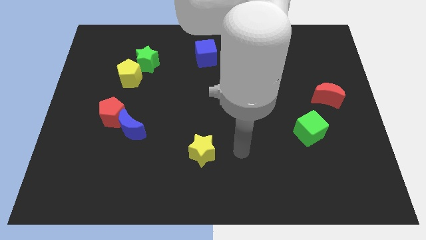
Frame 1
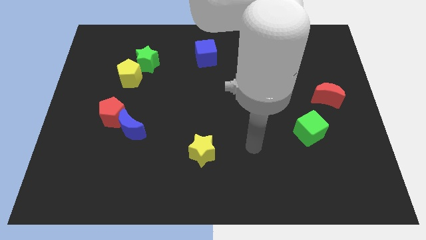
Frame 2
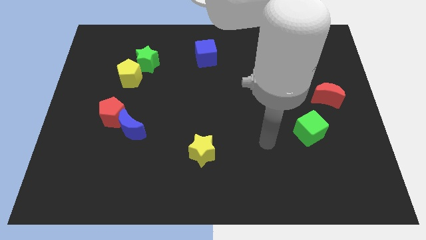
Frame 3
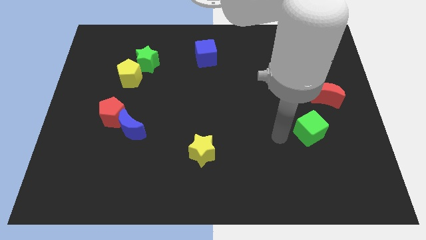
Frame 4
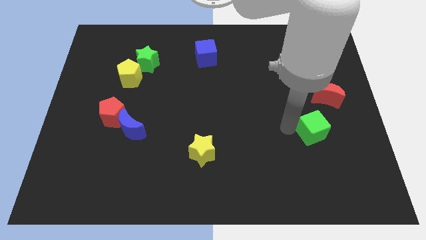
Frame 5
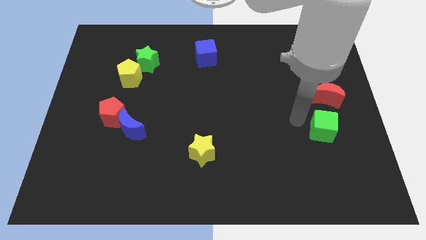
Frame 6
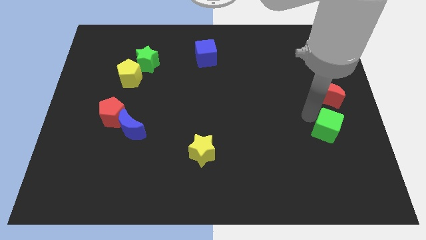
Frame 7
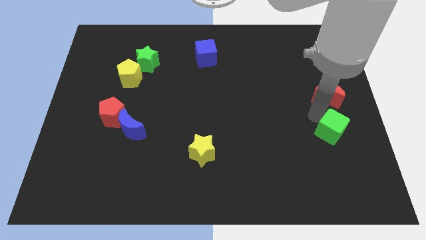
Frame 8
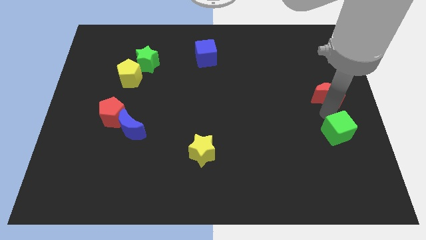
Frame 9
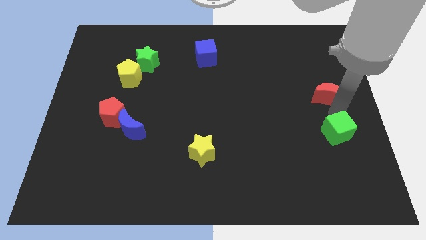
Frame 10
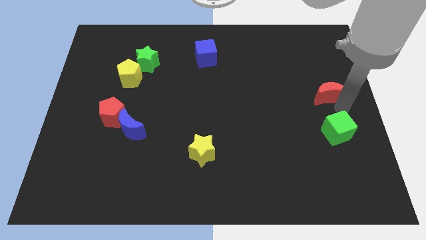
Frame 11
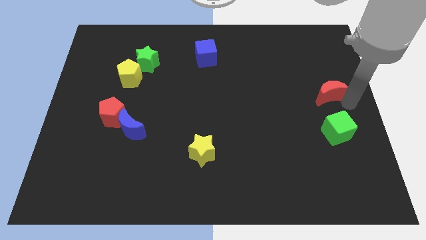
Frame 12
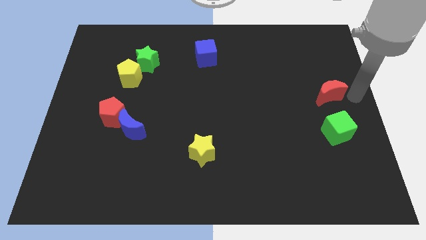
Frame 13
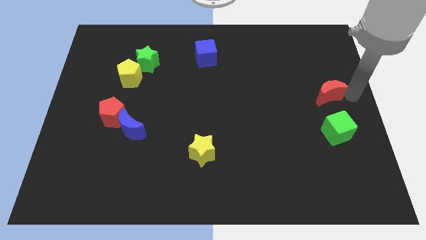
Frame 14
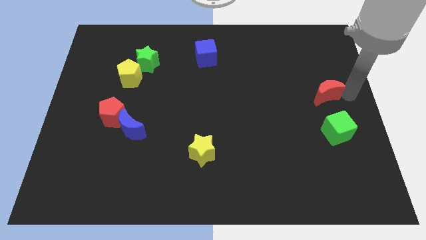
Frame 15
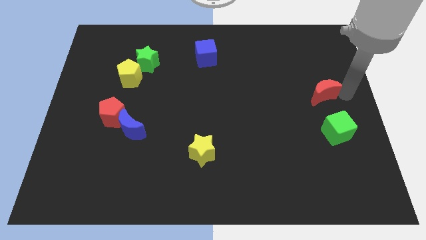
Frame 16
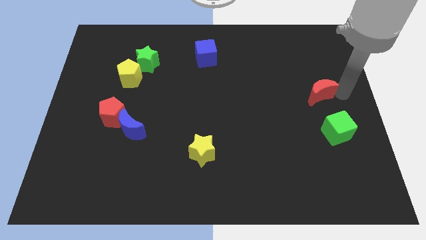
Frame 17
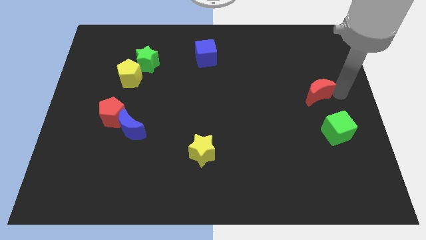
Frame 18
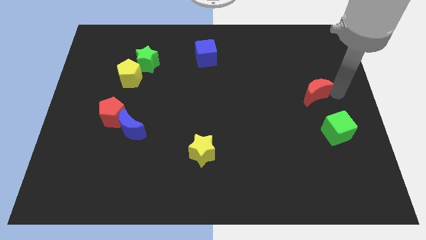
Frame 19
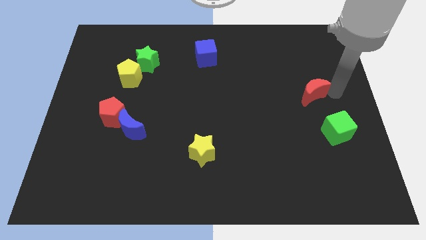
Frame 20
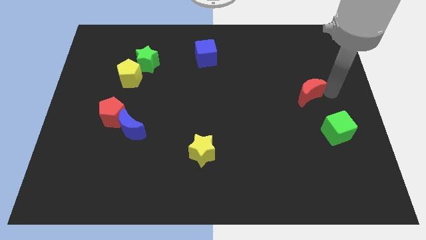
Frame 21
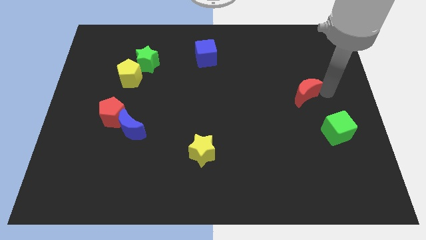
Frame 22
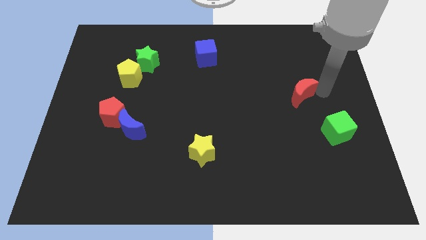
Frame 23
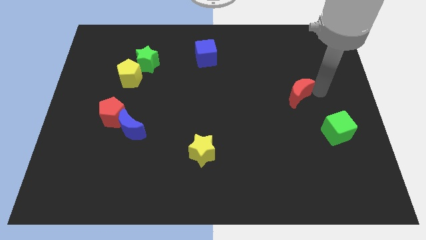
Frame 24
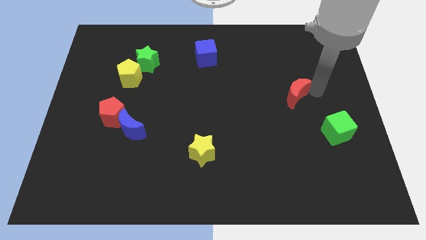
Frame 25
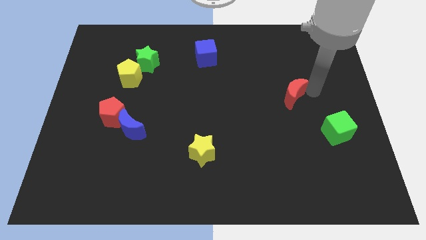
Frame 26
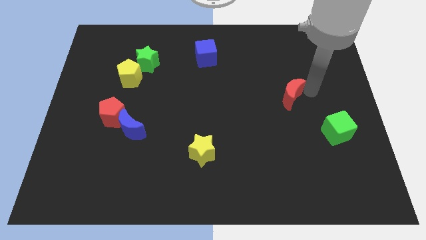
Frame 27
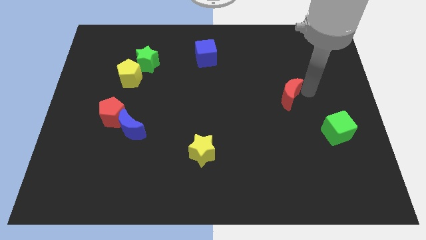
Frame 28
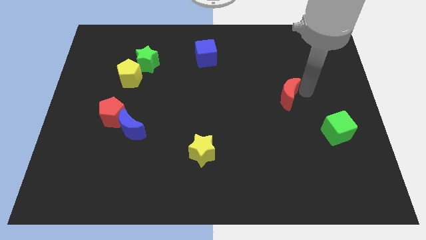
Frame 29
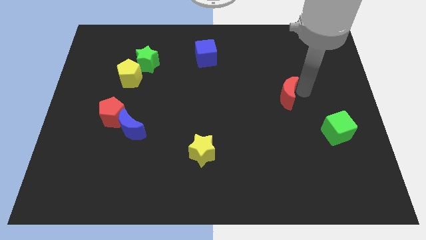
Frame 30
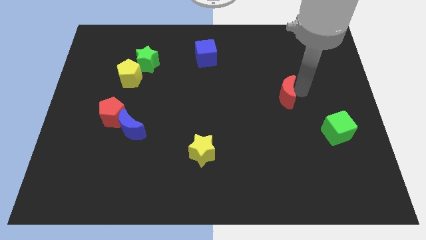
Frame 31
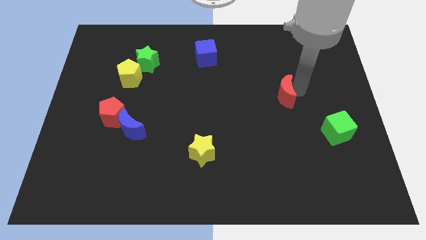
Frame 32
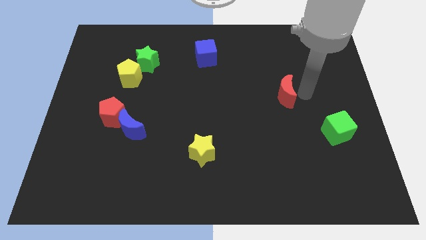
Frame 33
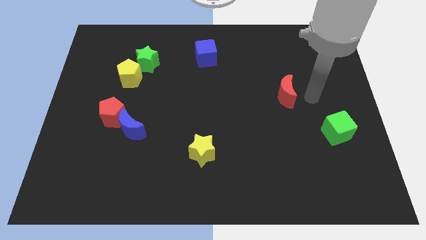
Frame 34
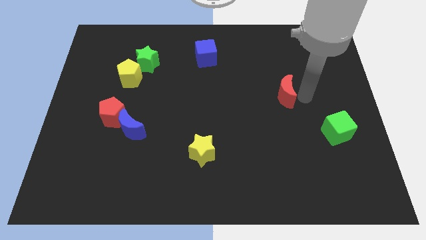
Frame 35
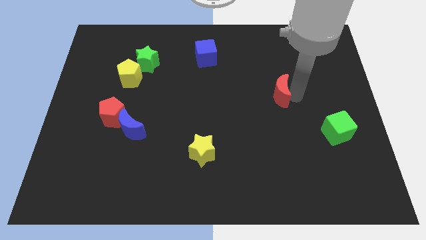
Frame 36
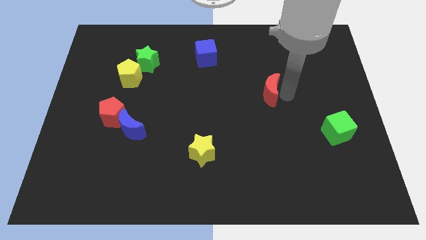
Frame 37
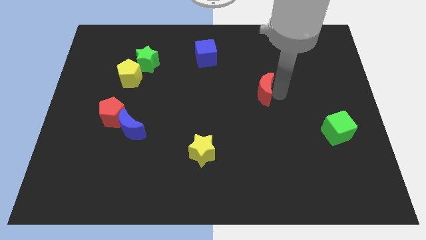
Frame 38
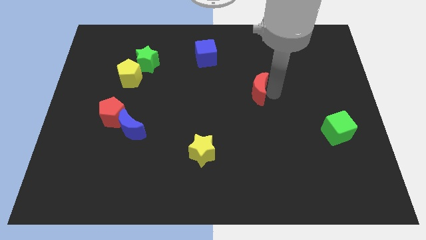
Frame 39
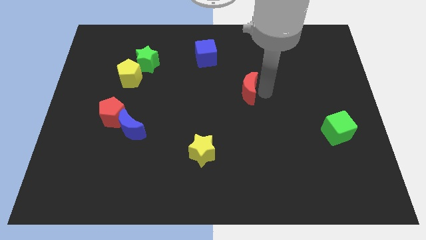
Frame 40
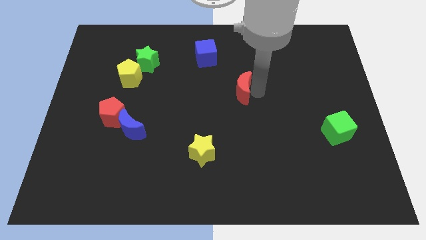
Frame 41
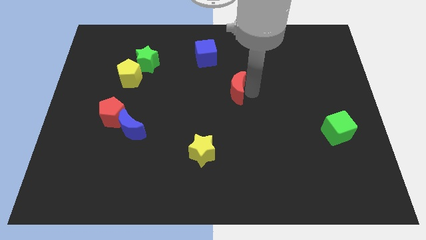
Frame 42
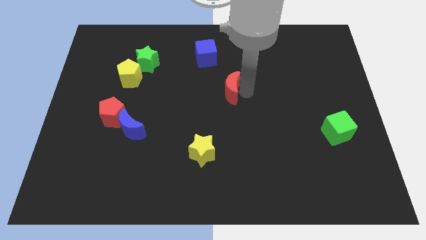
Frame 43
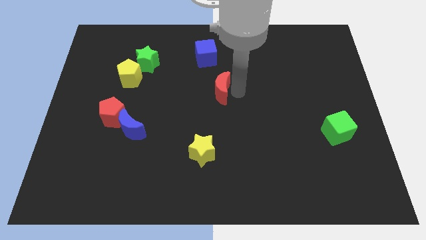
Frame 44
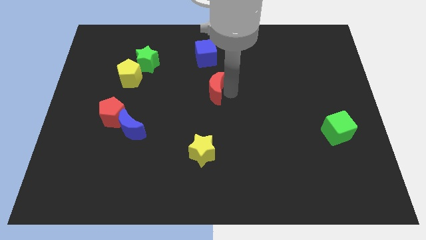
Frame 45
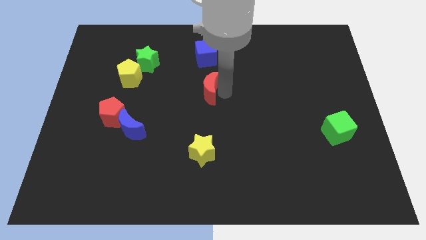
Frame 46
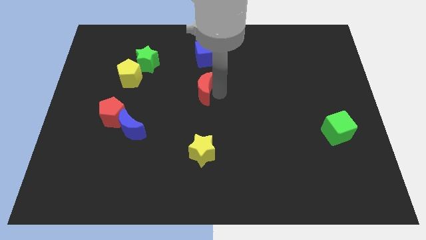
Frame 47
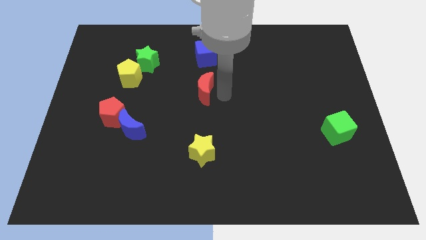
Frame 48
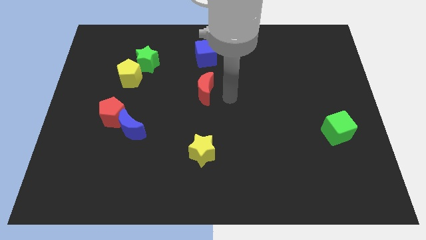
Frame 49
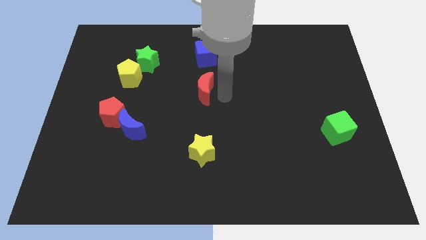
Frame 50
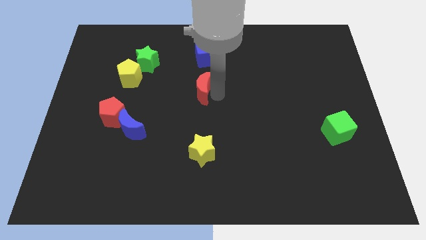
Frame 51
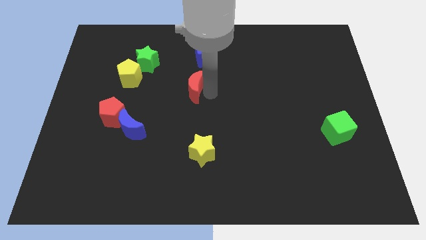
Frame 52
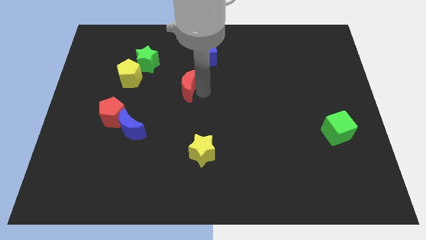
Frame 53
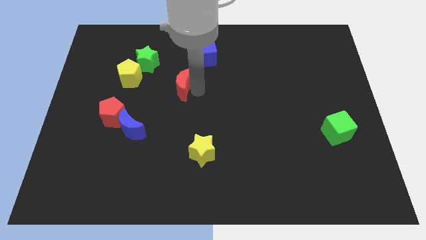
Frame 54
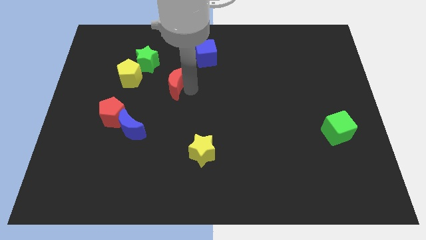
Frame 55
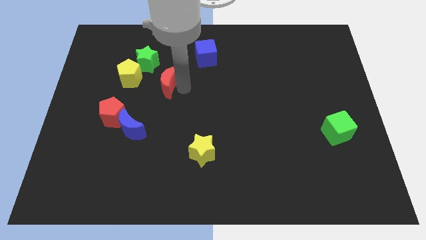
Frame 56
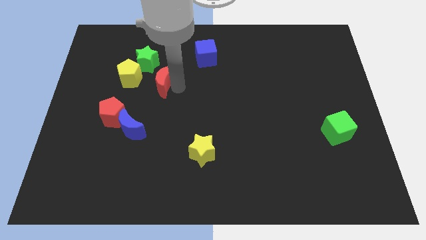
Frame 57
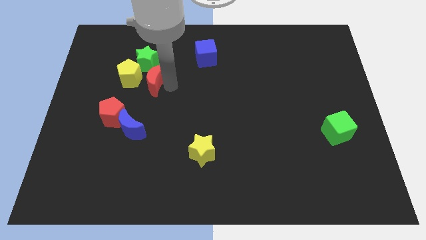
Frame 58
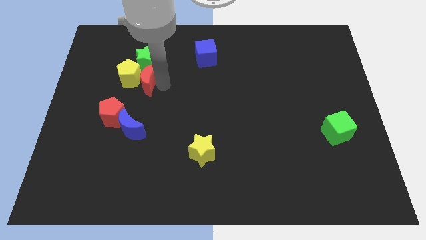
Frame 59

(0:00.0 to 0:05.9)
push the red moon to the yellow pentagon

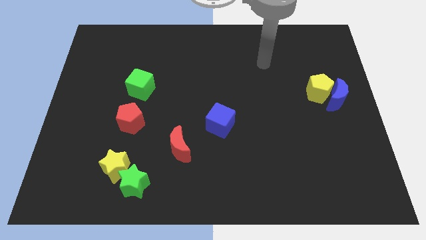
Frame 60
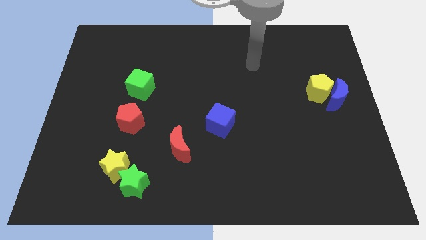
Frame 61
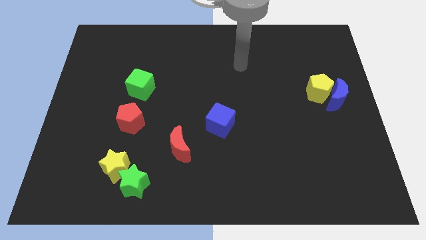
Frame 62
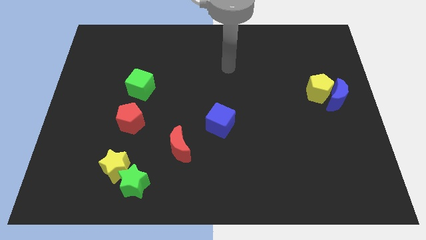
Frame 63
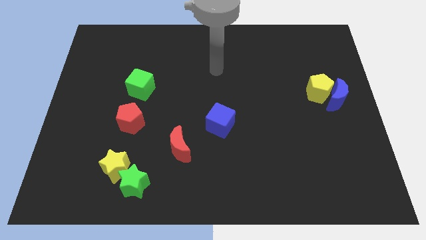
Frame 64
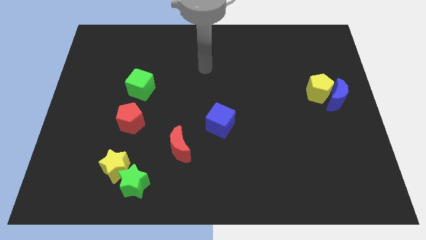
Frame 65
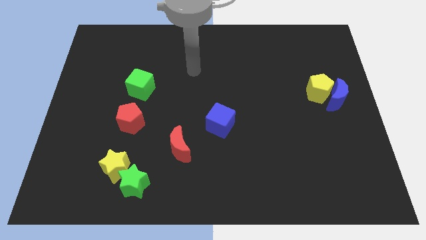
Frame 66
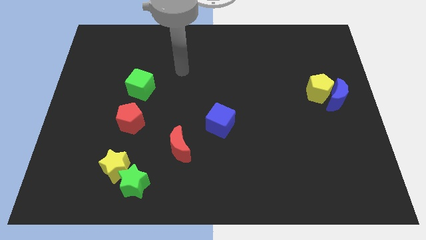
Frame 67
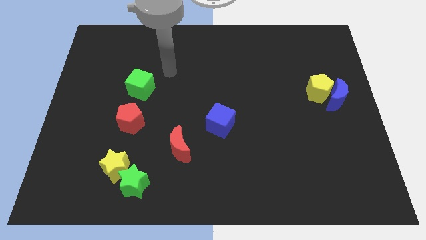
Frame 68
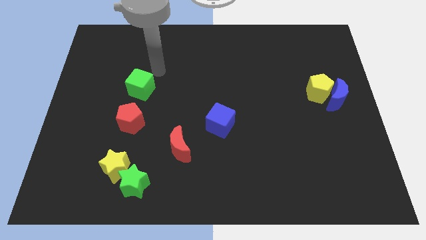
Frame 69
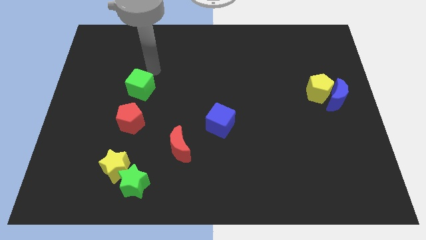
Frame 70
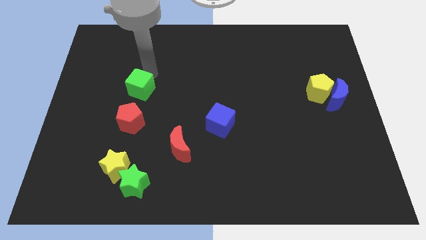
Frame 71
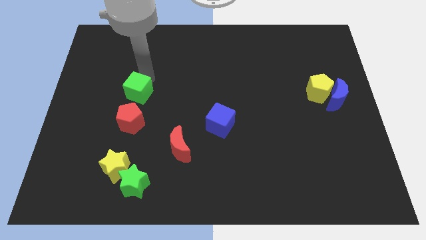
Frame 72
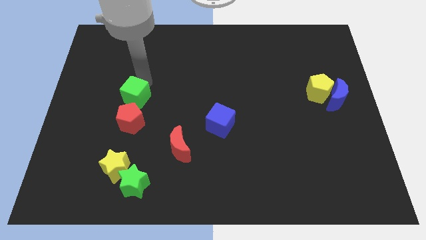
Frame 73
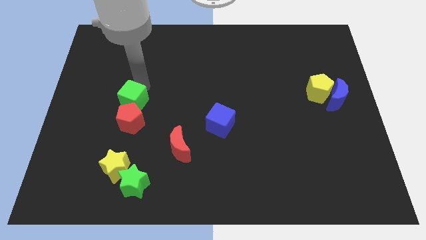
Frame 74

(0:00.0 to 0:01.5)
slide the green cube towards the red pentagon
